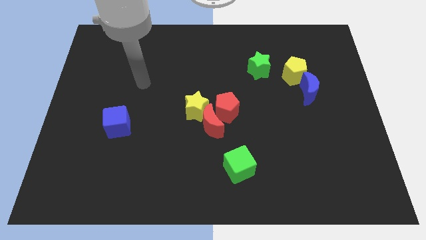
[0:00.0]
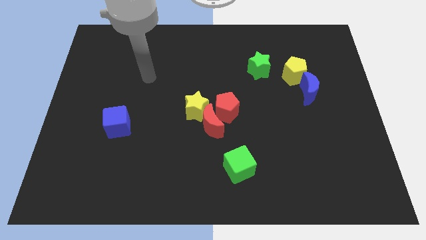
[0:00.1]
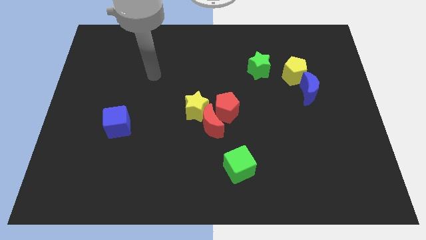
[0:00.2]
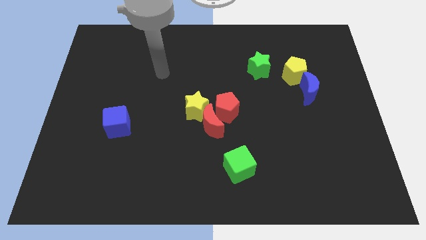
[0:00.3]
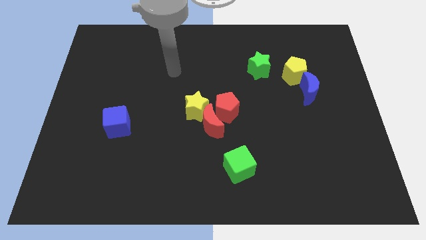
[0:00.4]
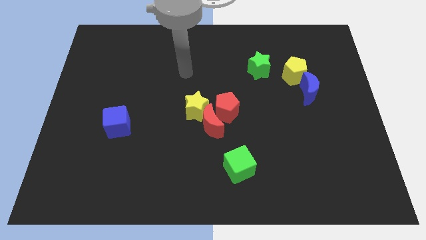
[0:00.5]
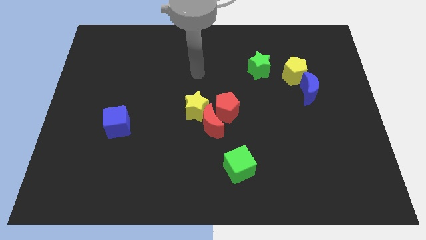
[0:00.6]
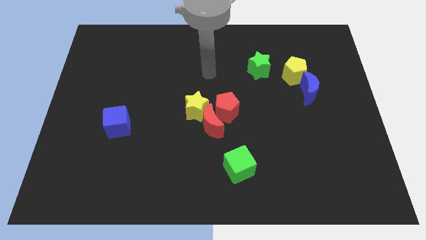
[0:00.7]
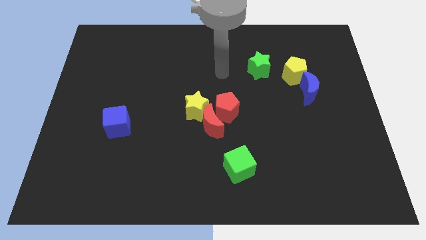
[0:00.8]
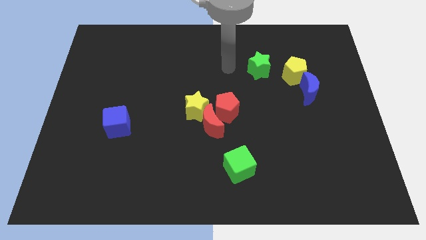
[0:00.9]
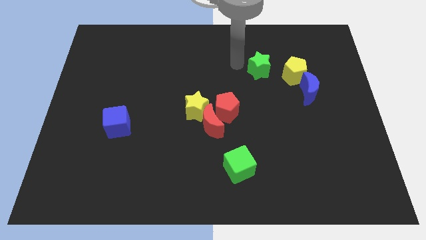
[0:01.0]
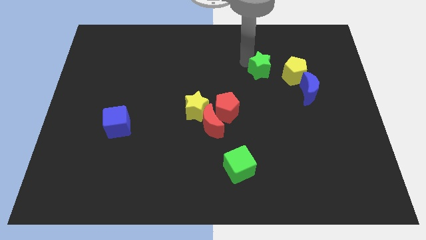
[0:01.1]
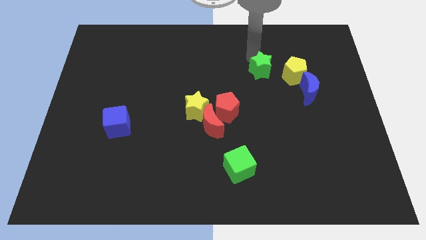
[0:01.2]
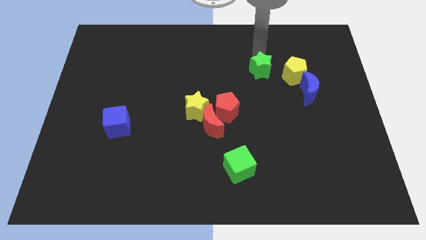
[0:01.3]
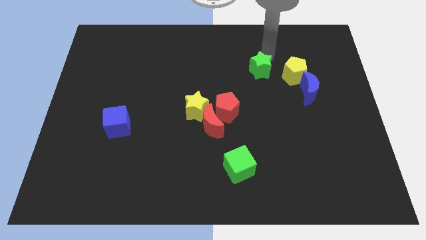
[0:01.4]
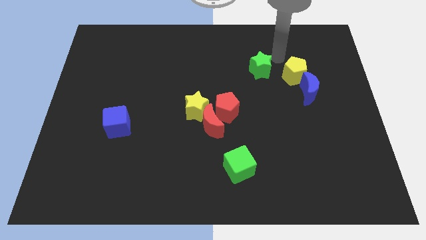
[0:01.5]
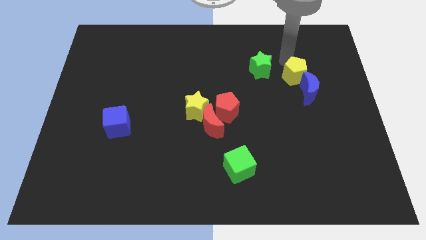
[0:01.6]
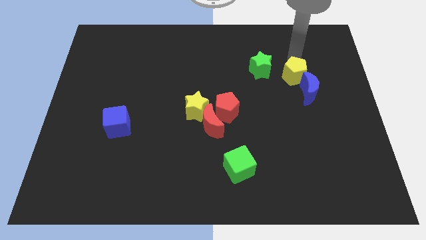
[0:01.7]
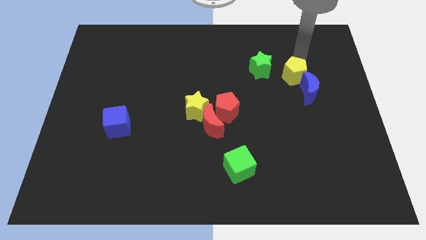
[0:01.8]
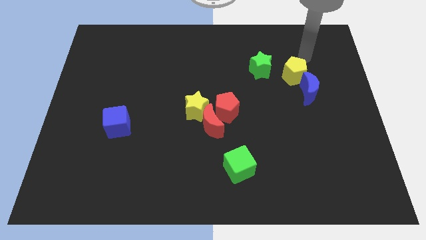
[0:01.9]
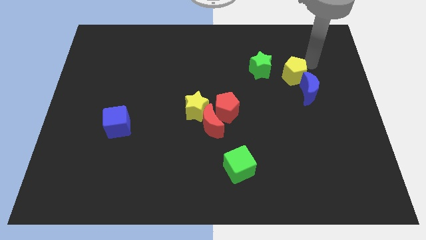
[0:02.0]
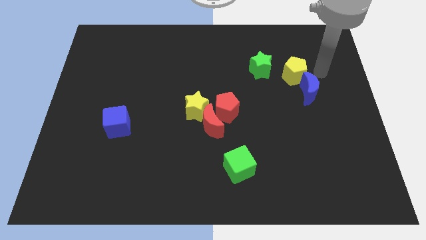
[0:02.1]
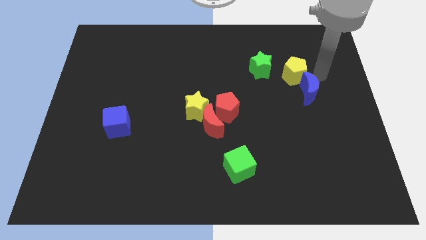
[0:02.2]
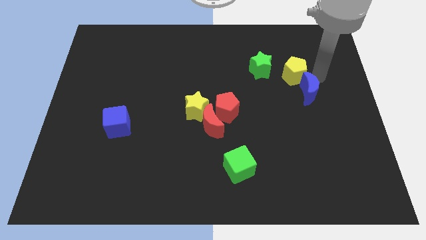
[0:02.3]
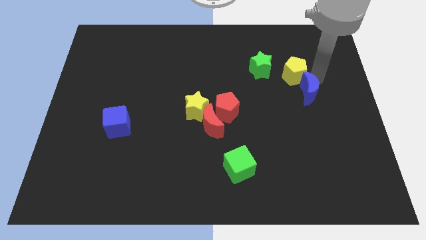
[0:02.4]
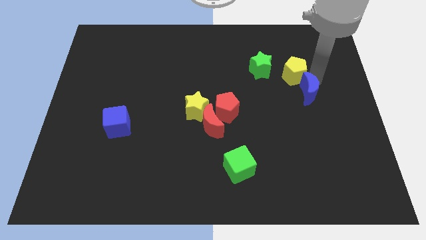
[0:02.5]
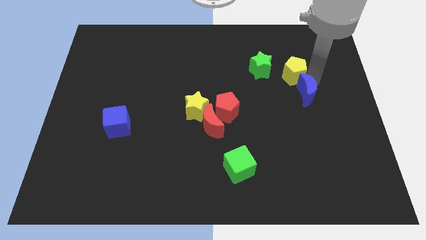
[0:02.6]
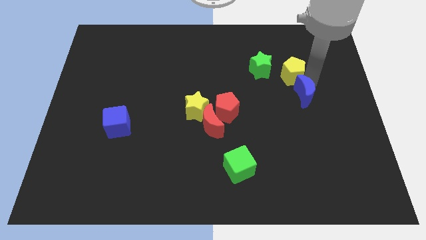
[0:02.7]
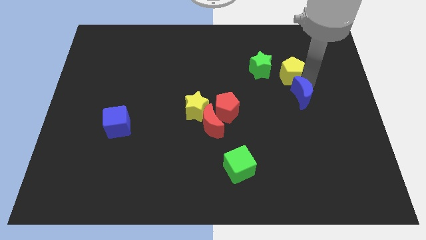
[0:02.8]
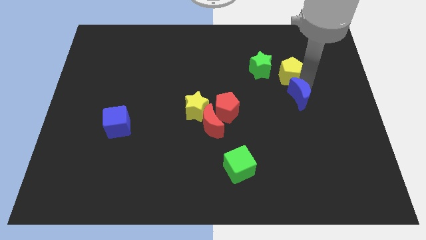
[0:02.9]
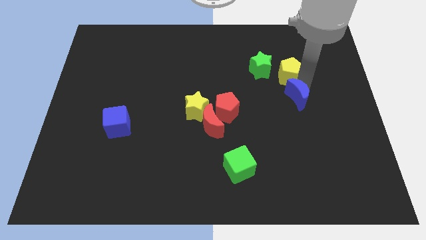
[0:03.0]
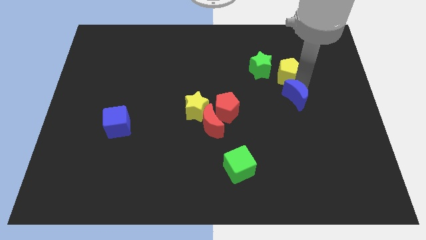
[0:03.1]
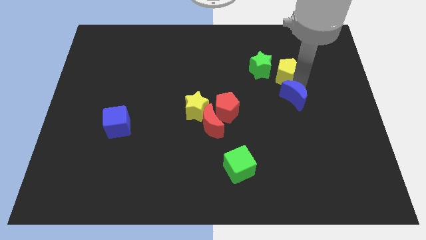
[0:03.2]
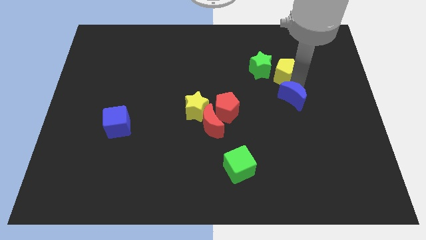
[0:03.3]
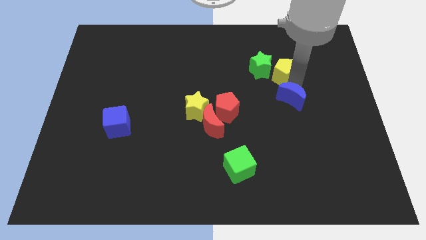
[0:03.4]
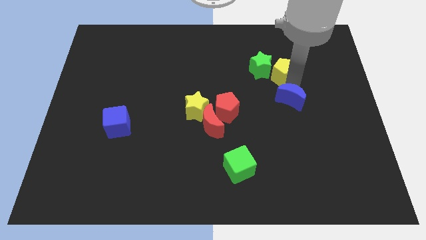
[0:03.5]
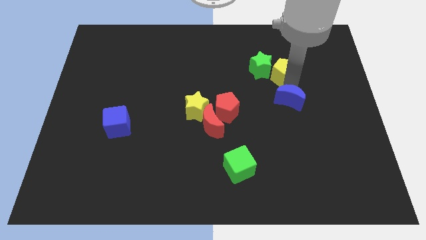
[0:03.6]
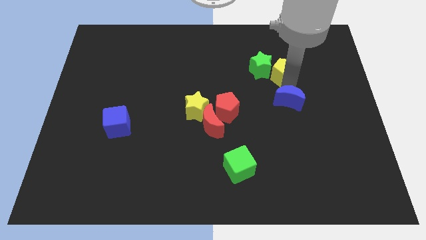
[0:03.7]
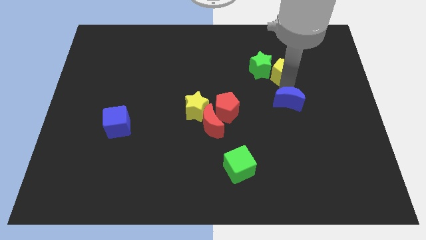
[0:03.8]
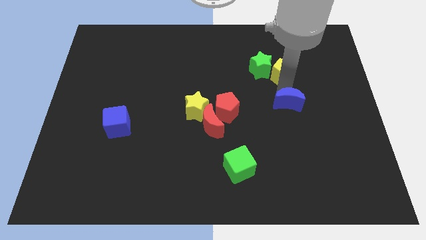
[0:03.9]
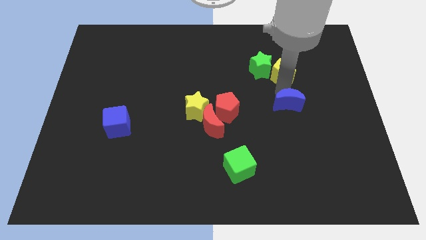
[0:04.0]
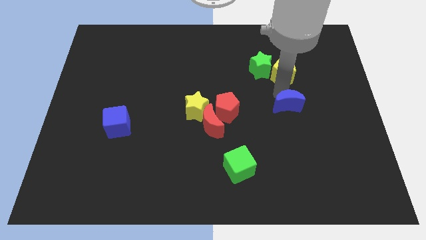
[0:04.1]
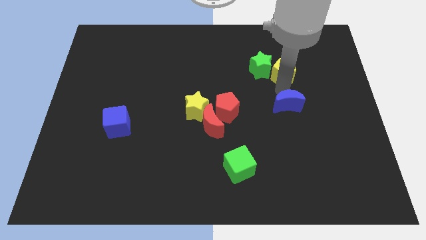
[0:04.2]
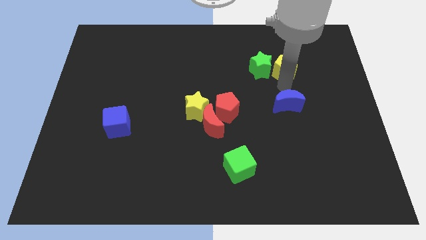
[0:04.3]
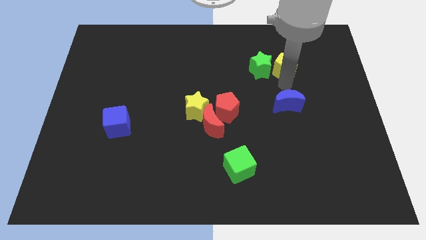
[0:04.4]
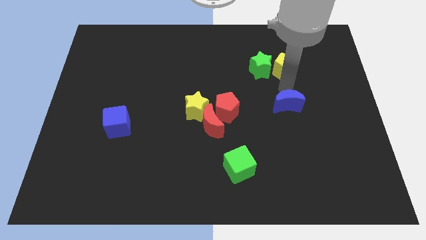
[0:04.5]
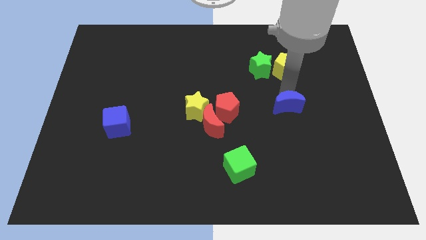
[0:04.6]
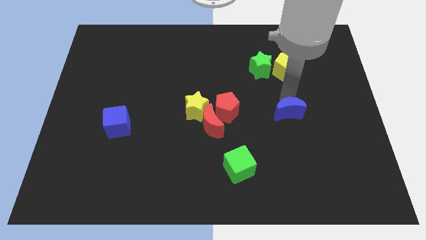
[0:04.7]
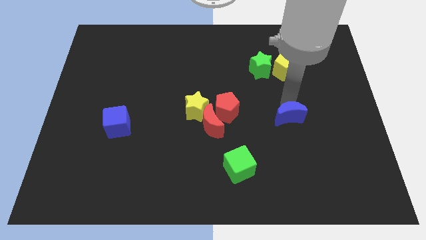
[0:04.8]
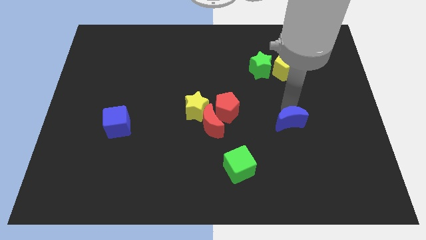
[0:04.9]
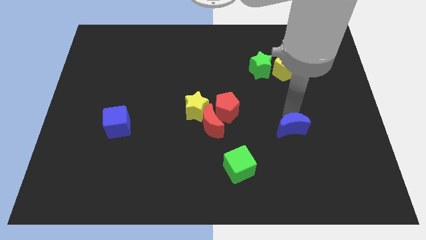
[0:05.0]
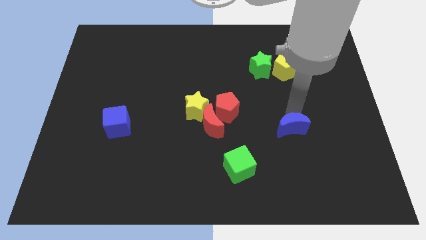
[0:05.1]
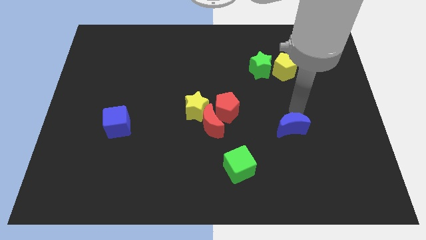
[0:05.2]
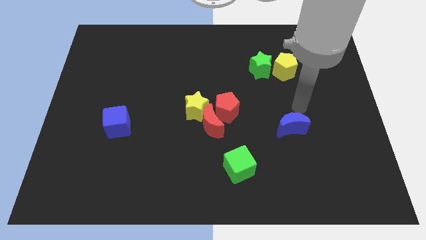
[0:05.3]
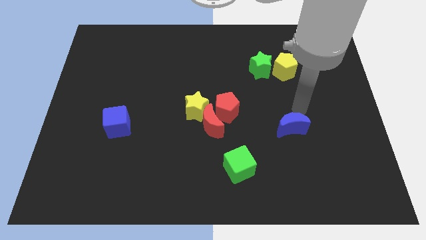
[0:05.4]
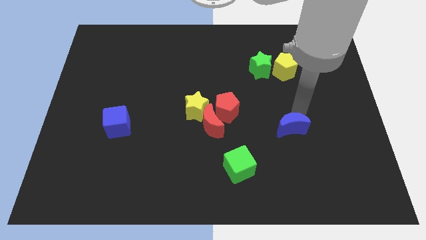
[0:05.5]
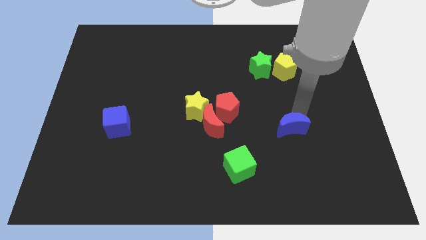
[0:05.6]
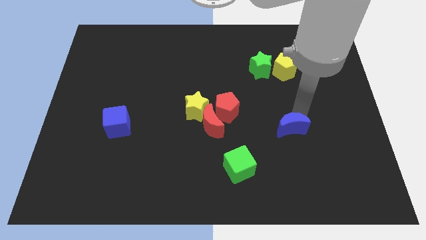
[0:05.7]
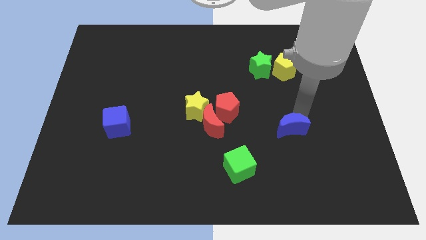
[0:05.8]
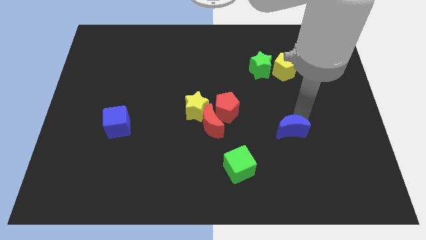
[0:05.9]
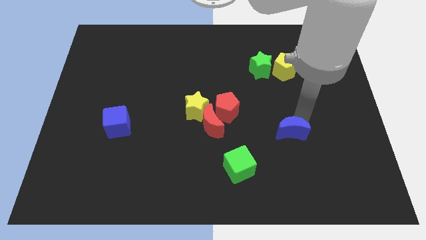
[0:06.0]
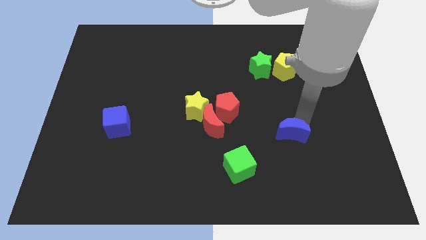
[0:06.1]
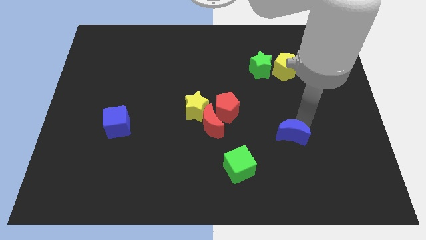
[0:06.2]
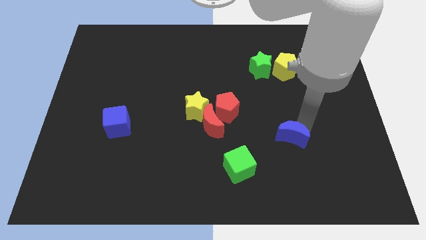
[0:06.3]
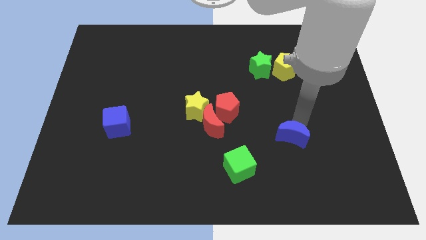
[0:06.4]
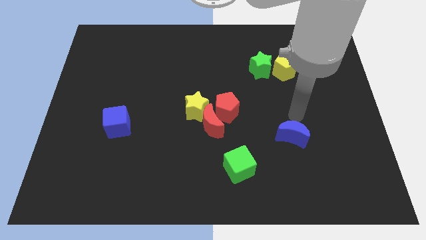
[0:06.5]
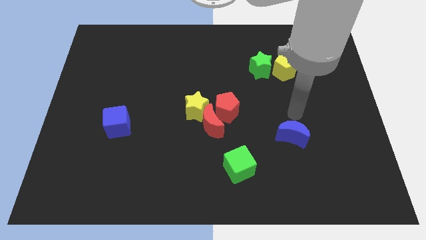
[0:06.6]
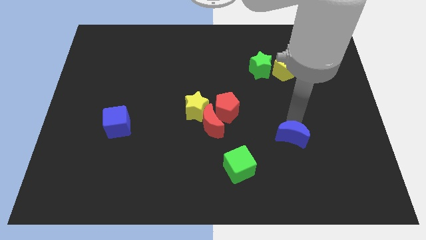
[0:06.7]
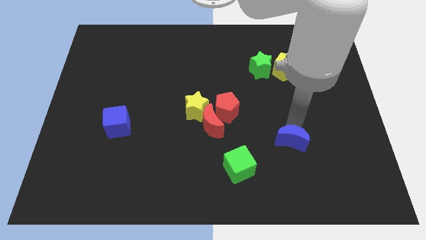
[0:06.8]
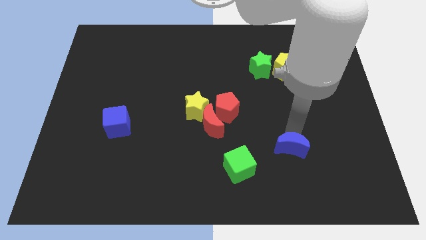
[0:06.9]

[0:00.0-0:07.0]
push the blue moon right of the green cube
